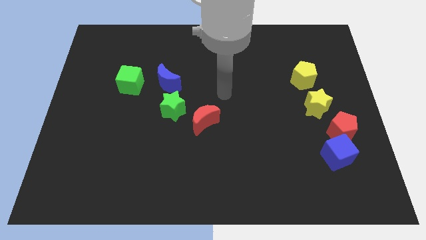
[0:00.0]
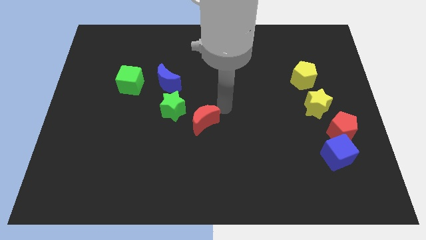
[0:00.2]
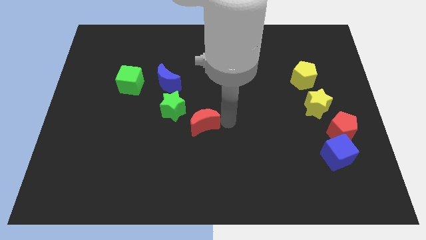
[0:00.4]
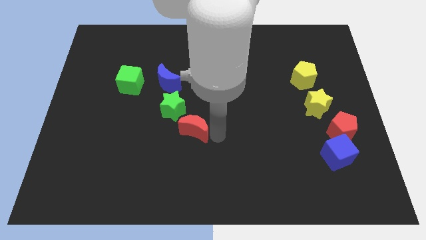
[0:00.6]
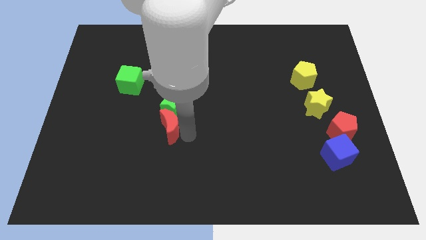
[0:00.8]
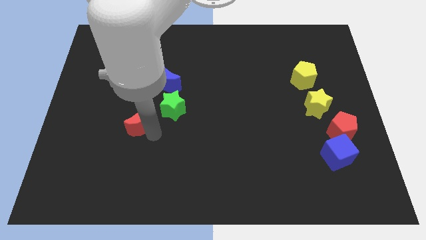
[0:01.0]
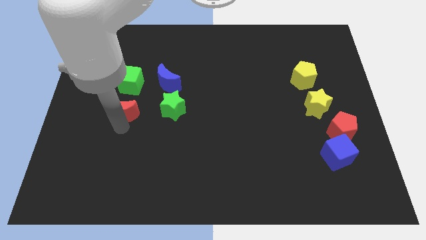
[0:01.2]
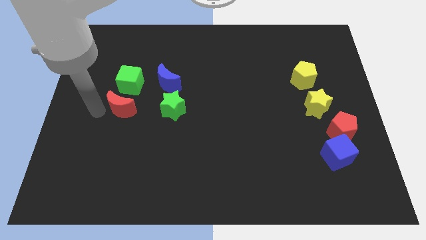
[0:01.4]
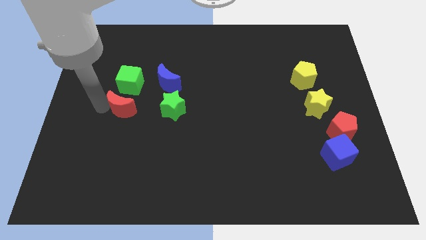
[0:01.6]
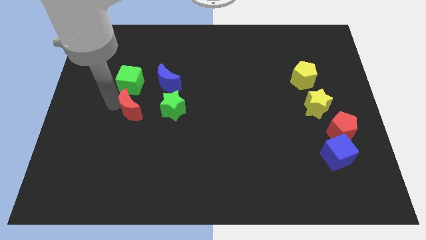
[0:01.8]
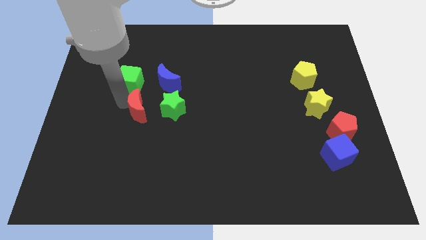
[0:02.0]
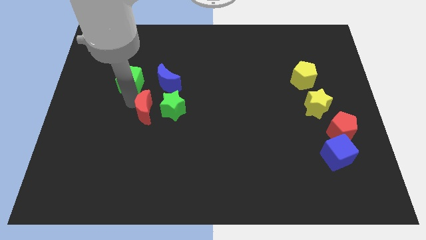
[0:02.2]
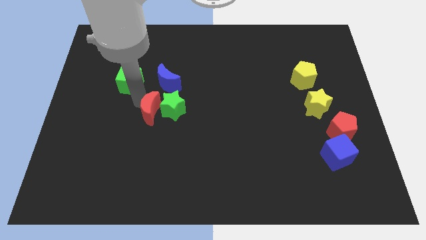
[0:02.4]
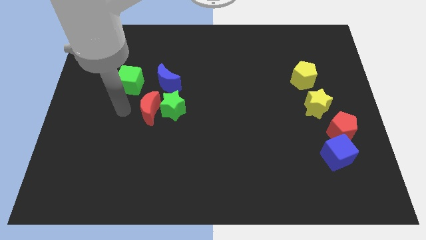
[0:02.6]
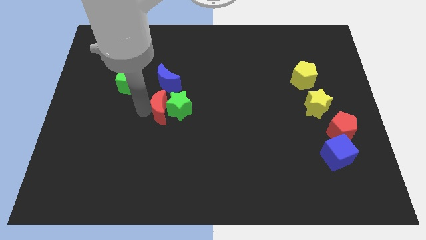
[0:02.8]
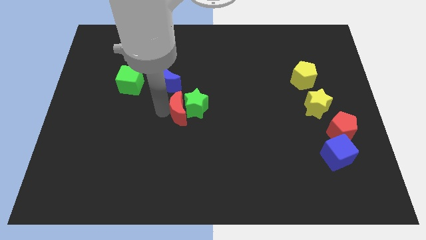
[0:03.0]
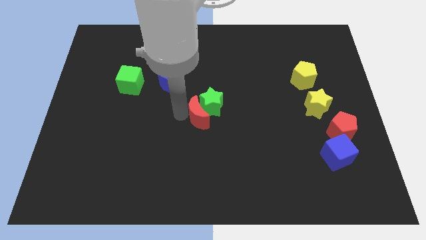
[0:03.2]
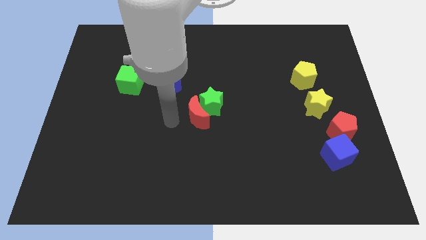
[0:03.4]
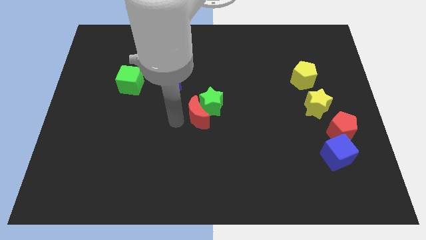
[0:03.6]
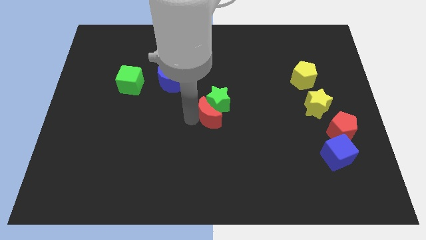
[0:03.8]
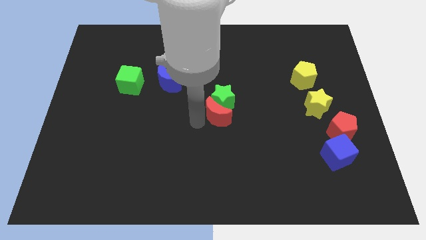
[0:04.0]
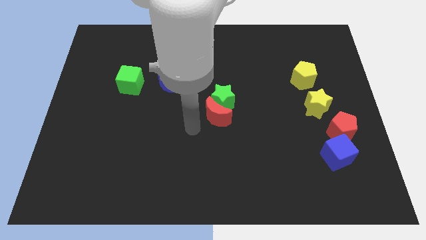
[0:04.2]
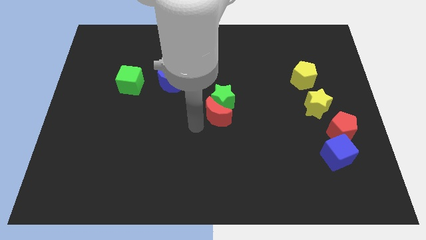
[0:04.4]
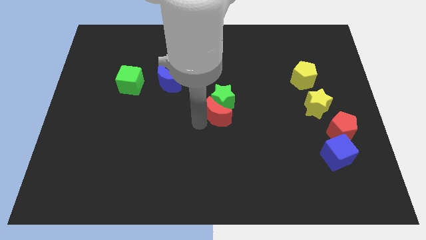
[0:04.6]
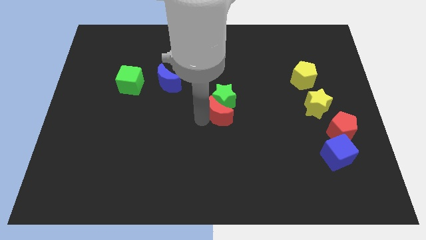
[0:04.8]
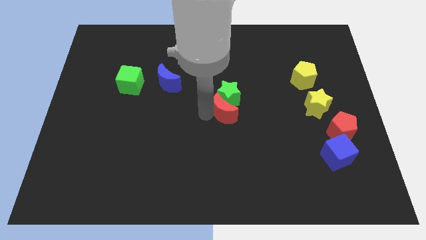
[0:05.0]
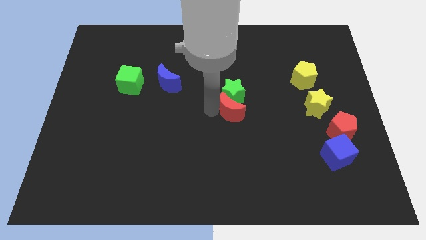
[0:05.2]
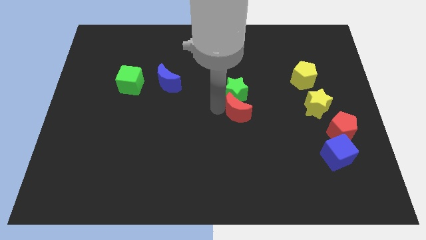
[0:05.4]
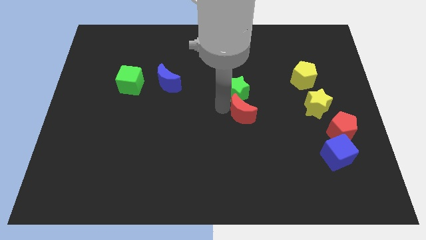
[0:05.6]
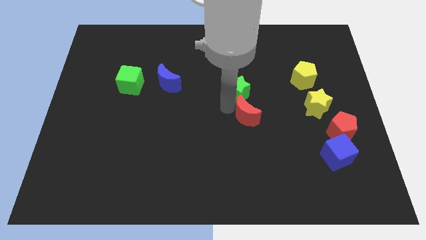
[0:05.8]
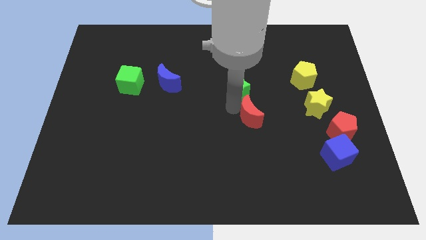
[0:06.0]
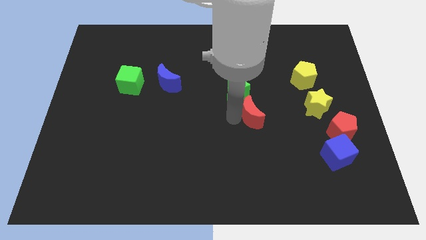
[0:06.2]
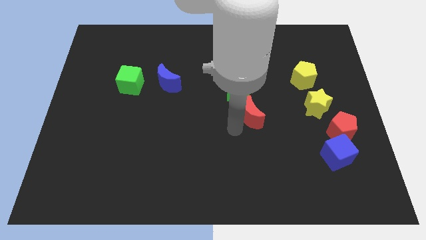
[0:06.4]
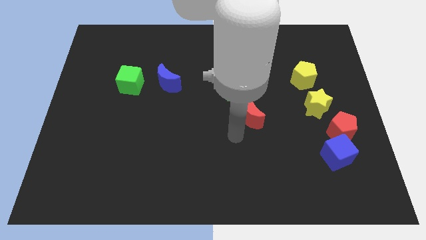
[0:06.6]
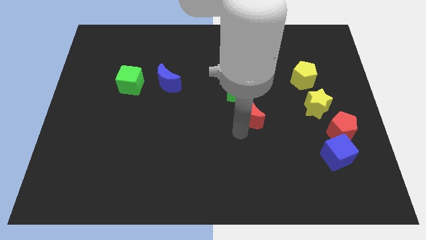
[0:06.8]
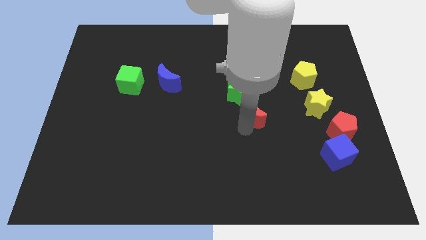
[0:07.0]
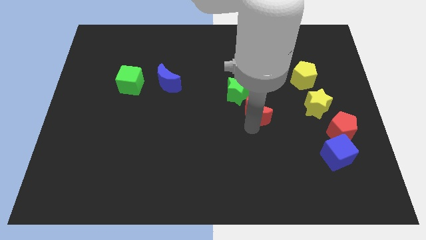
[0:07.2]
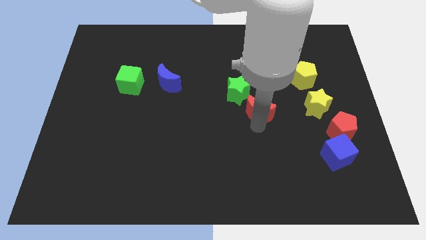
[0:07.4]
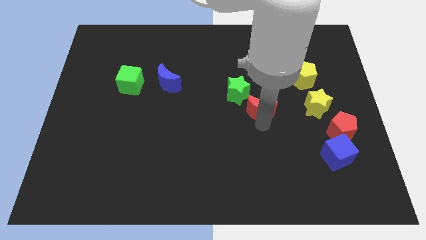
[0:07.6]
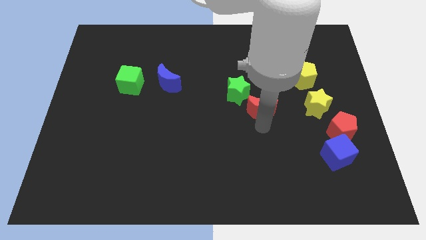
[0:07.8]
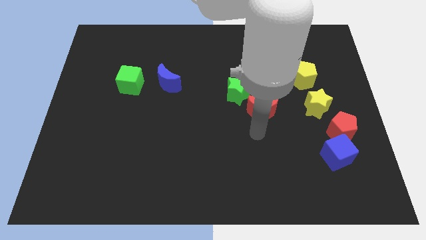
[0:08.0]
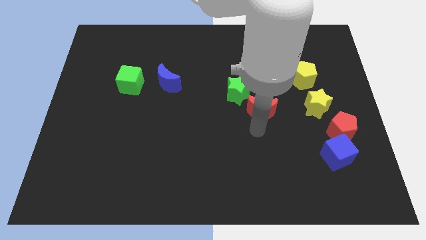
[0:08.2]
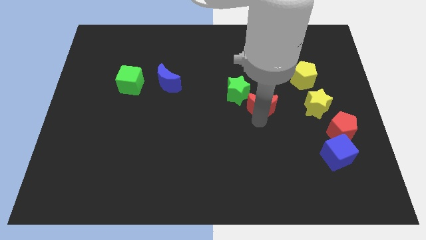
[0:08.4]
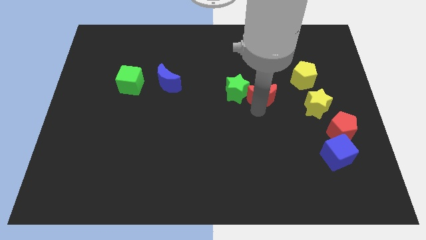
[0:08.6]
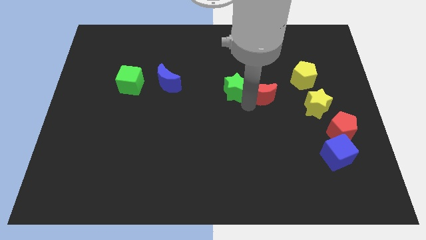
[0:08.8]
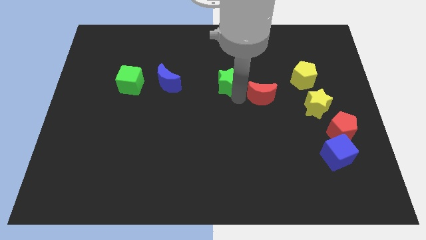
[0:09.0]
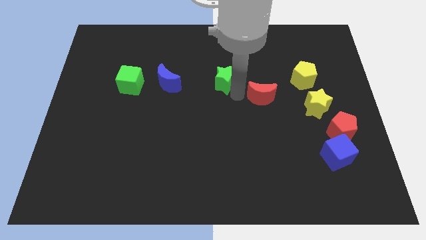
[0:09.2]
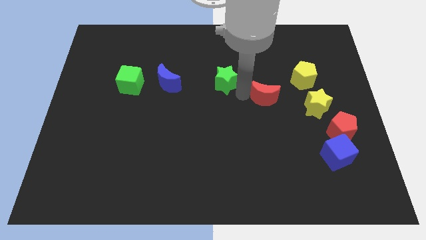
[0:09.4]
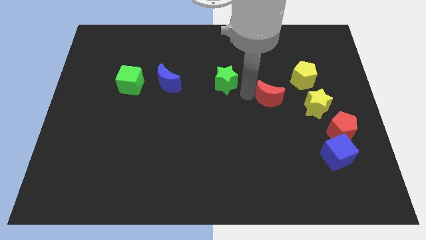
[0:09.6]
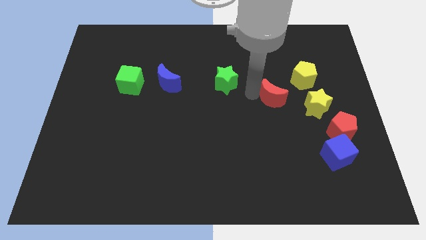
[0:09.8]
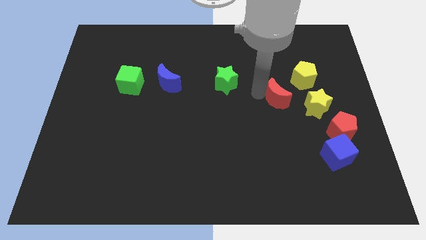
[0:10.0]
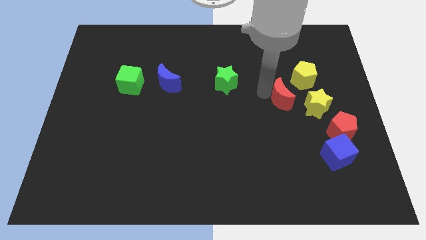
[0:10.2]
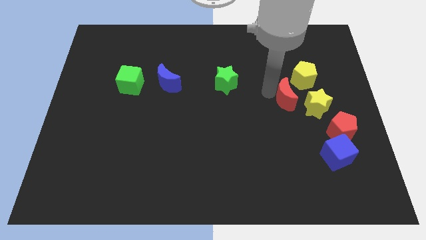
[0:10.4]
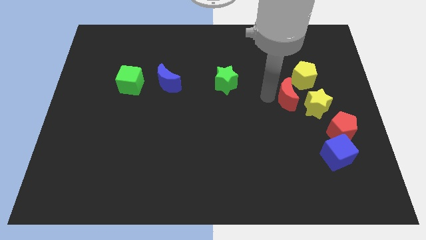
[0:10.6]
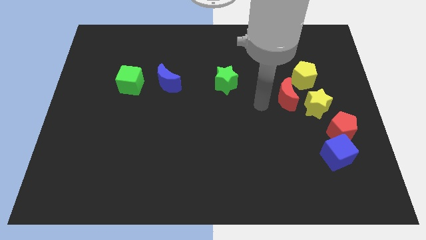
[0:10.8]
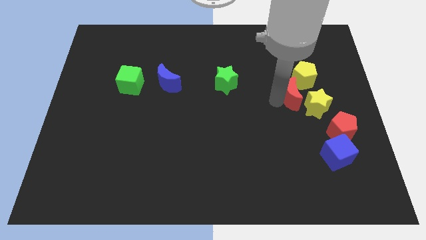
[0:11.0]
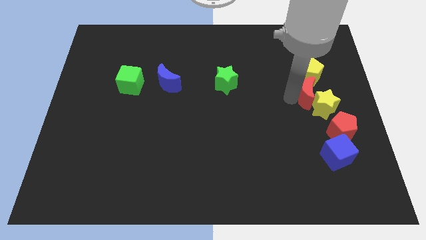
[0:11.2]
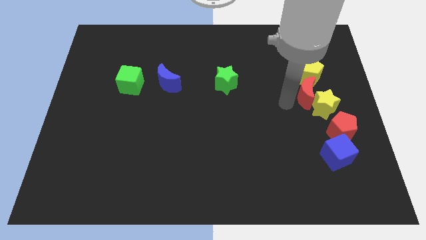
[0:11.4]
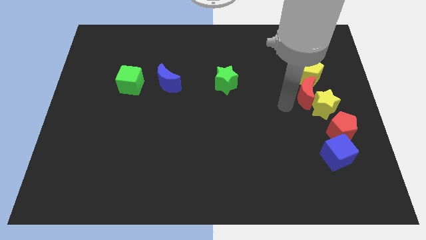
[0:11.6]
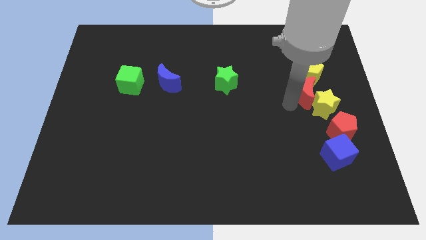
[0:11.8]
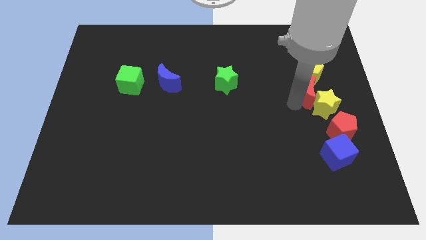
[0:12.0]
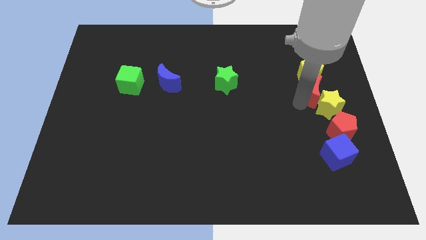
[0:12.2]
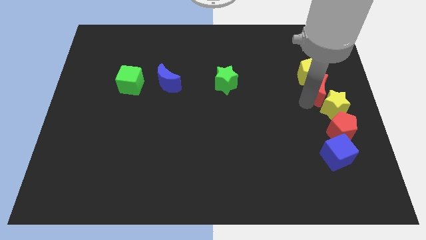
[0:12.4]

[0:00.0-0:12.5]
put the red moon to the right side
